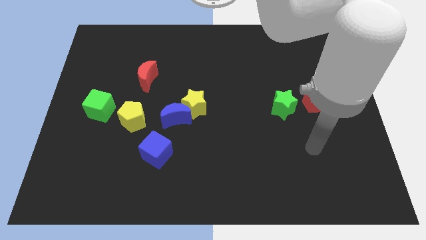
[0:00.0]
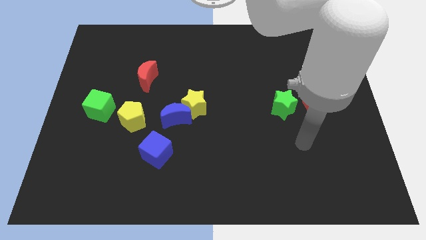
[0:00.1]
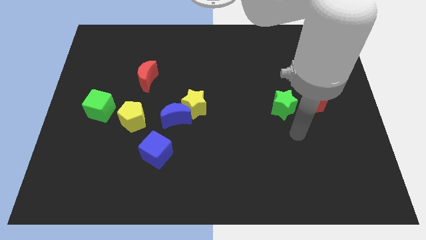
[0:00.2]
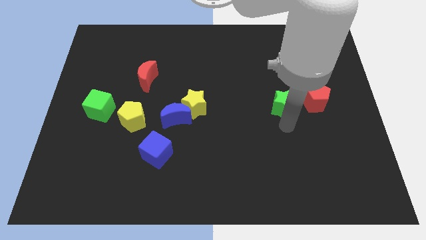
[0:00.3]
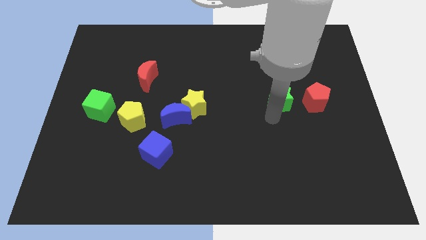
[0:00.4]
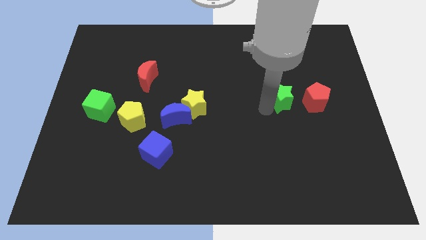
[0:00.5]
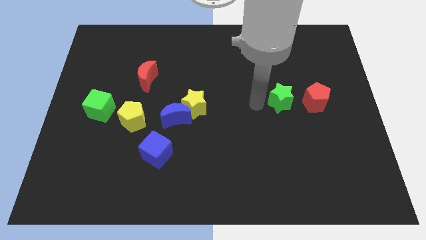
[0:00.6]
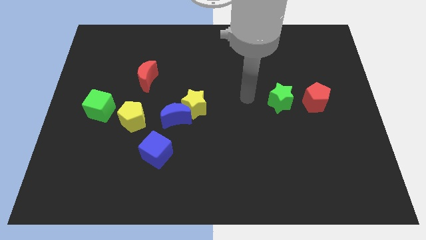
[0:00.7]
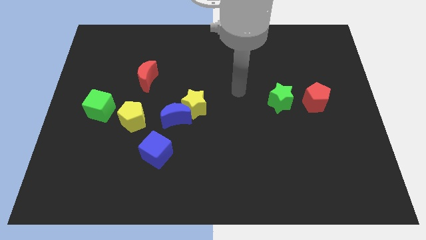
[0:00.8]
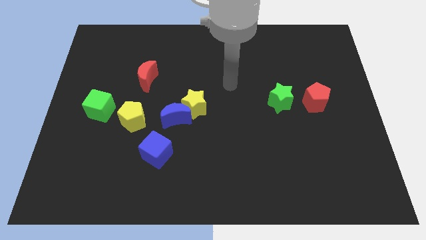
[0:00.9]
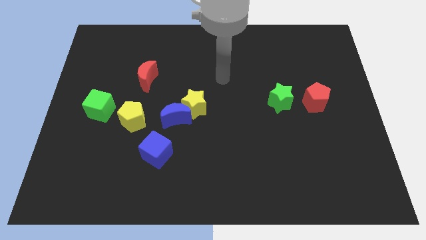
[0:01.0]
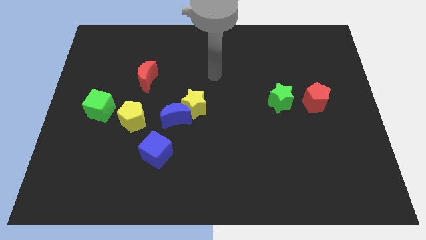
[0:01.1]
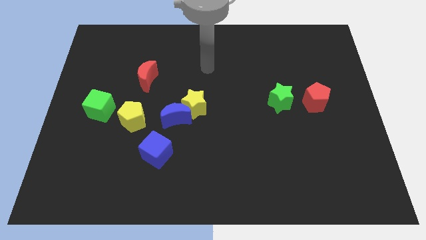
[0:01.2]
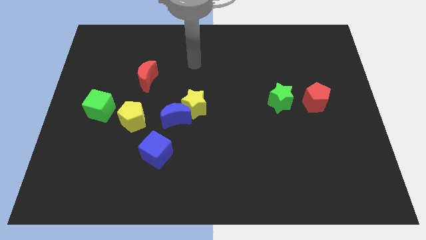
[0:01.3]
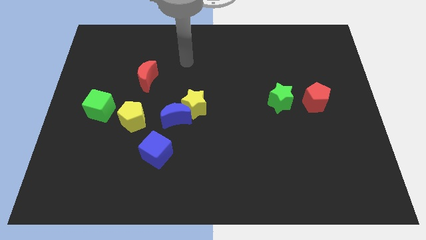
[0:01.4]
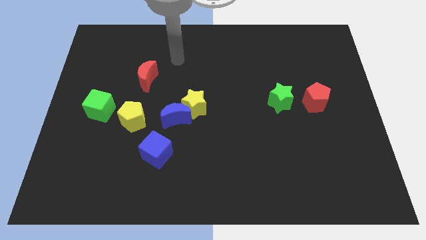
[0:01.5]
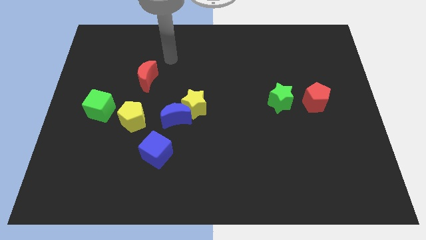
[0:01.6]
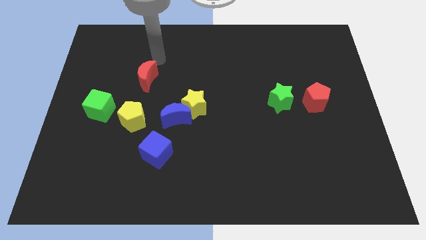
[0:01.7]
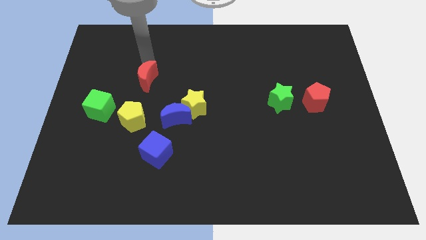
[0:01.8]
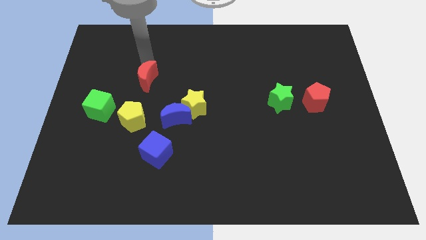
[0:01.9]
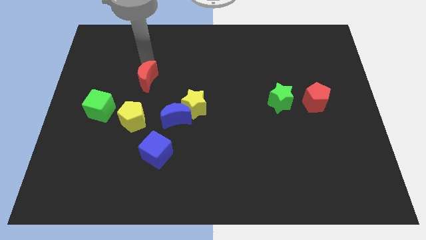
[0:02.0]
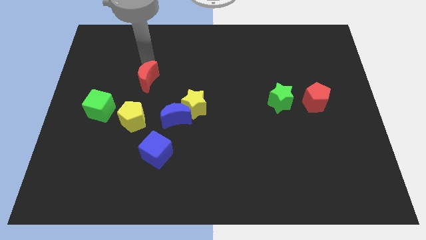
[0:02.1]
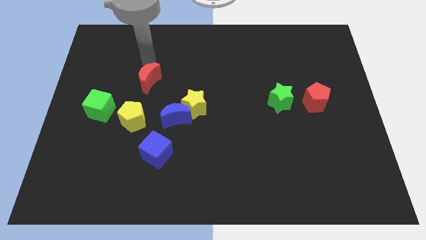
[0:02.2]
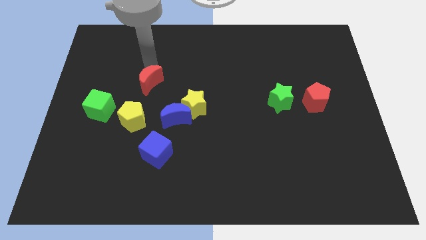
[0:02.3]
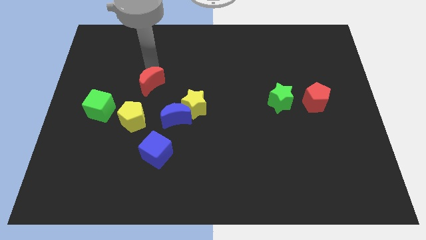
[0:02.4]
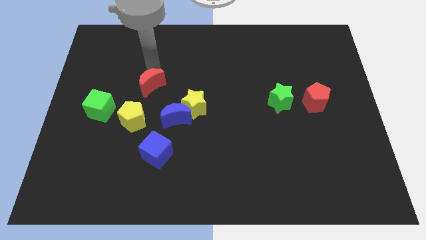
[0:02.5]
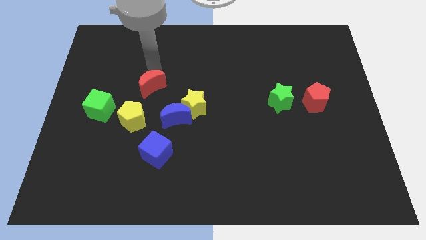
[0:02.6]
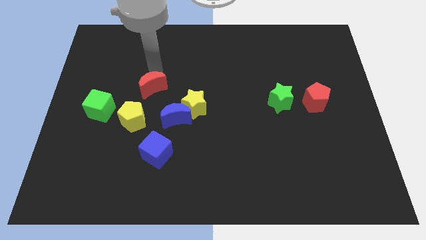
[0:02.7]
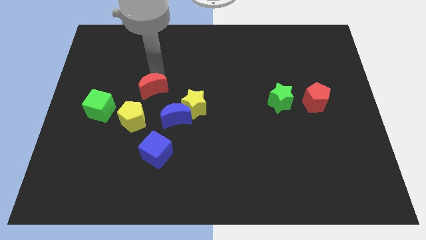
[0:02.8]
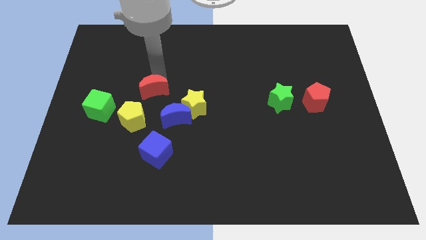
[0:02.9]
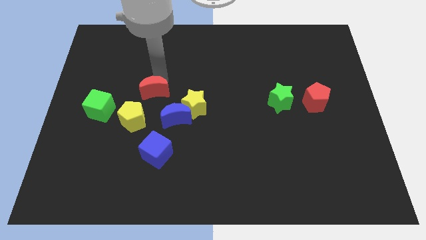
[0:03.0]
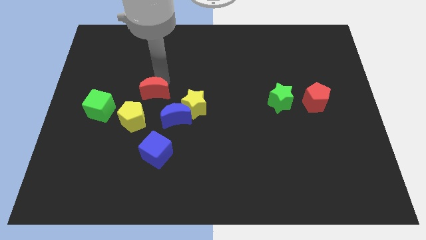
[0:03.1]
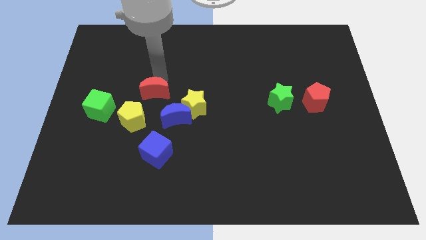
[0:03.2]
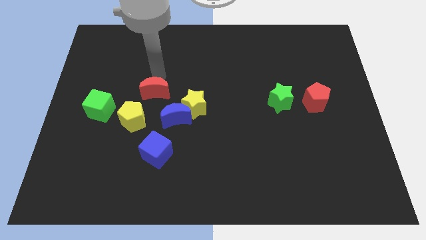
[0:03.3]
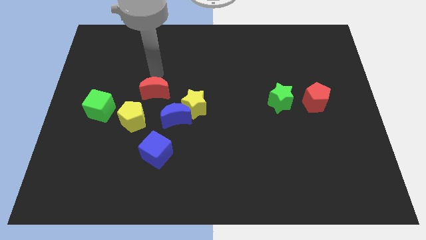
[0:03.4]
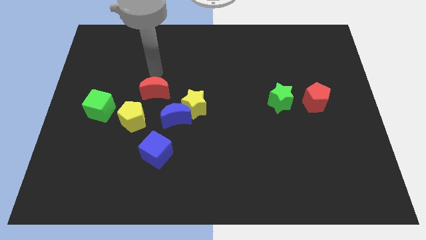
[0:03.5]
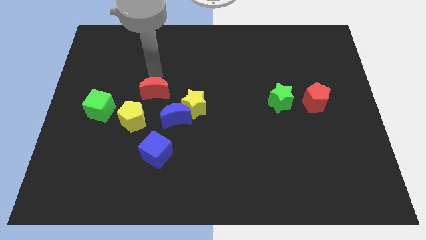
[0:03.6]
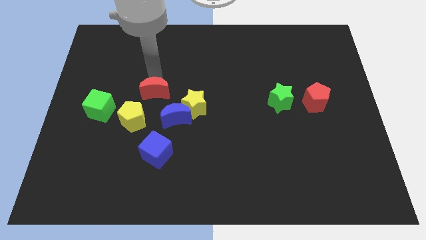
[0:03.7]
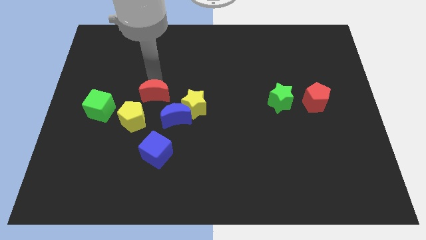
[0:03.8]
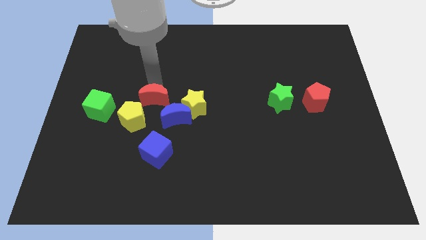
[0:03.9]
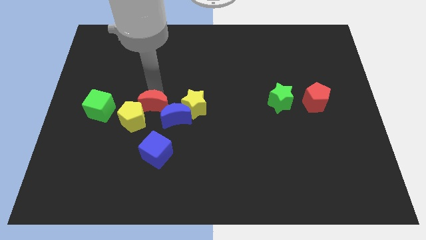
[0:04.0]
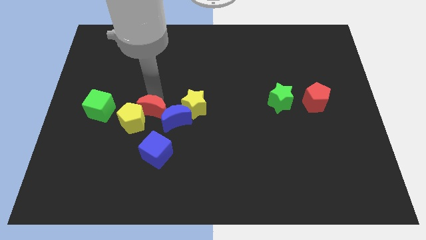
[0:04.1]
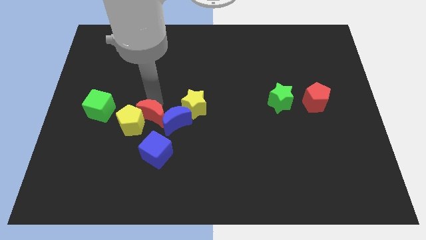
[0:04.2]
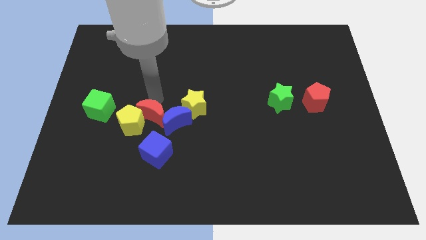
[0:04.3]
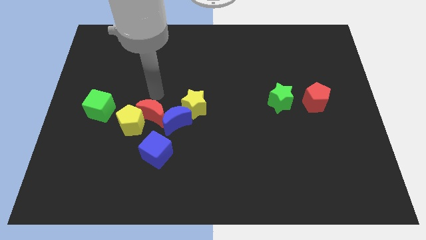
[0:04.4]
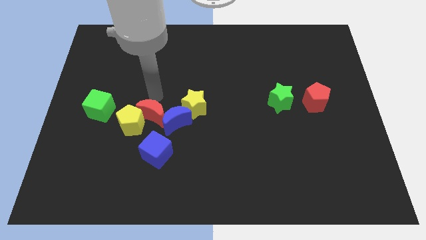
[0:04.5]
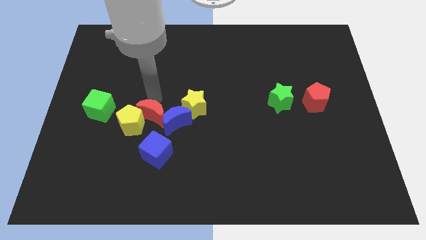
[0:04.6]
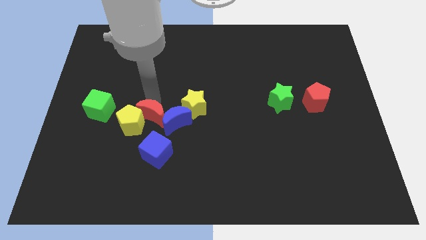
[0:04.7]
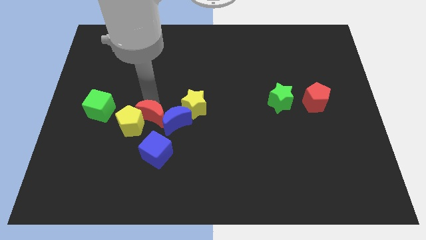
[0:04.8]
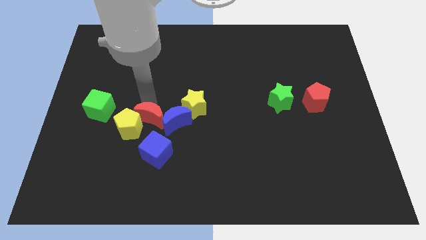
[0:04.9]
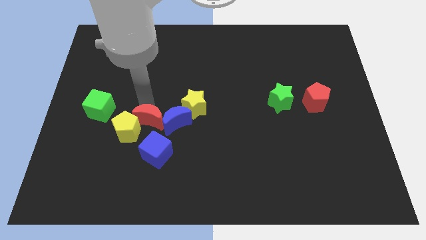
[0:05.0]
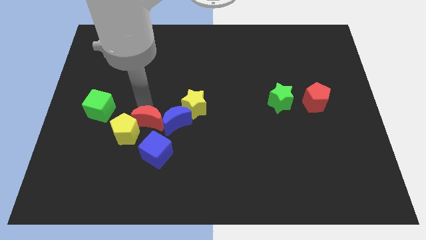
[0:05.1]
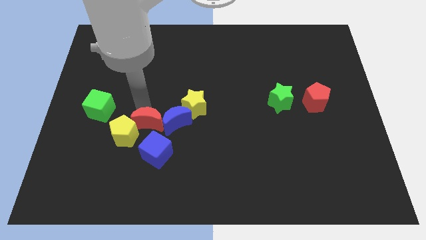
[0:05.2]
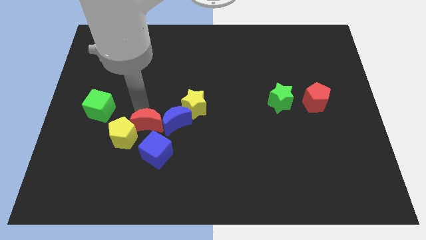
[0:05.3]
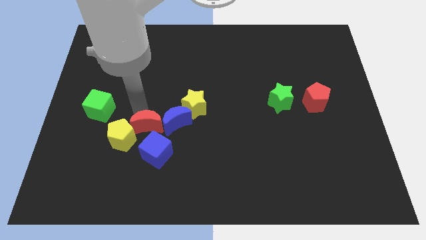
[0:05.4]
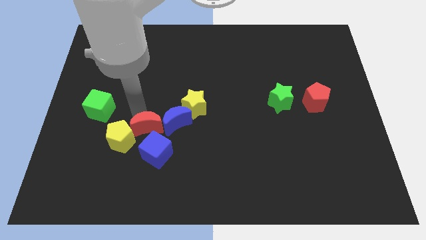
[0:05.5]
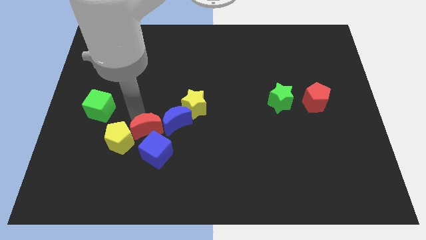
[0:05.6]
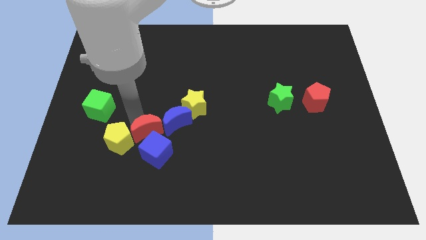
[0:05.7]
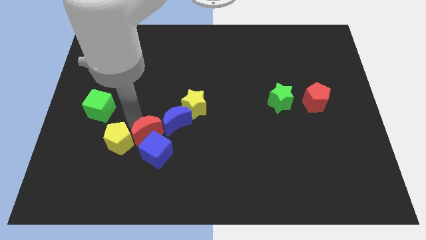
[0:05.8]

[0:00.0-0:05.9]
put the red moon close to the blue cube

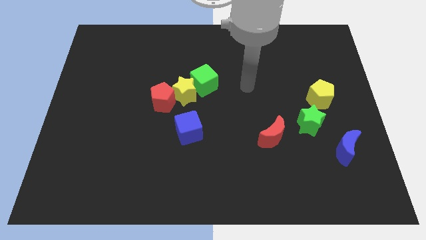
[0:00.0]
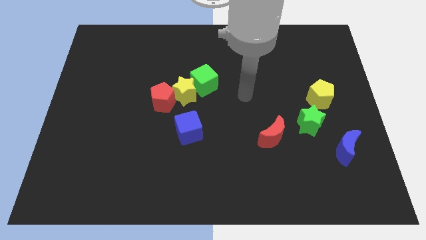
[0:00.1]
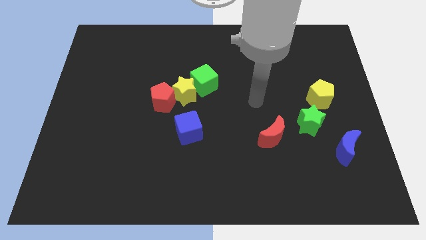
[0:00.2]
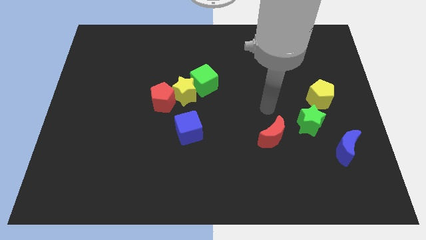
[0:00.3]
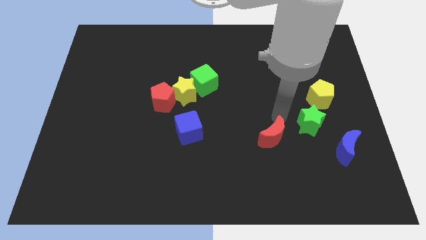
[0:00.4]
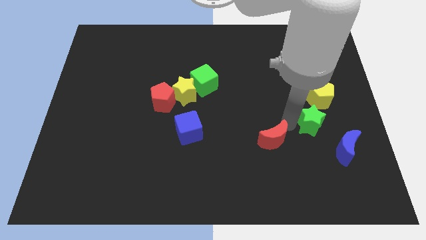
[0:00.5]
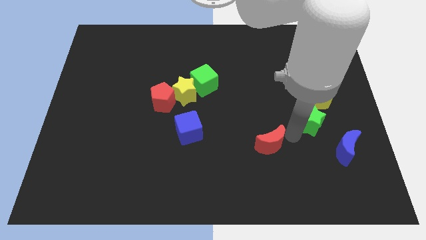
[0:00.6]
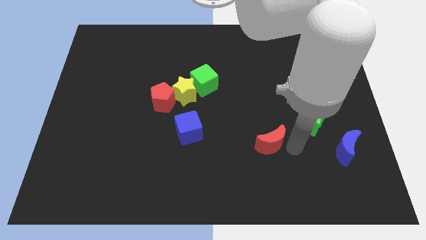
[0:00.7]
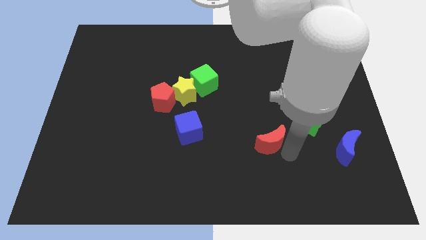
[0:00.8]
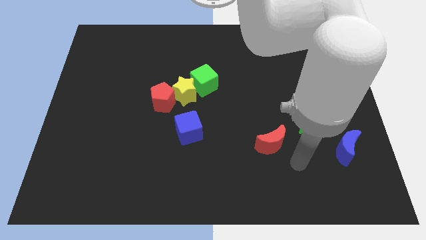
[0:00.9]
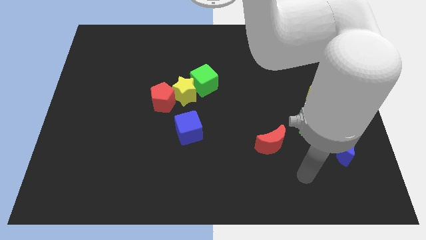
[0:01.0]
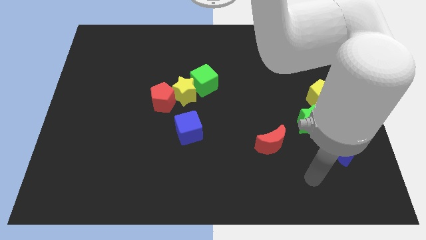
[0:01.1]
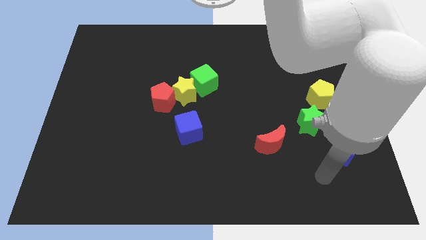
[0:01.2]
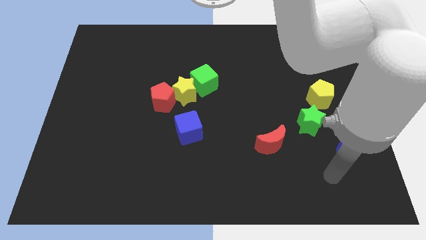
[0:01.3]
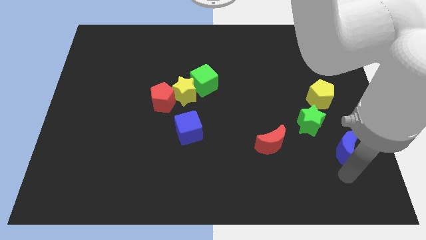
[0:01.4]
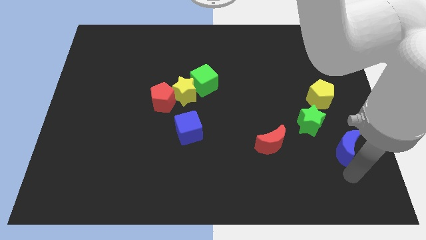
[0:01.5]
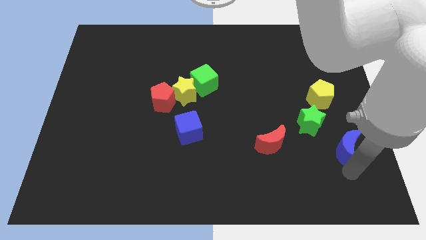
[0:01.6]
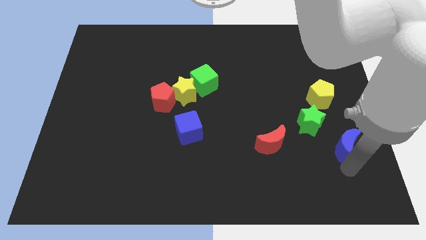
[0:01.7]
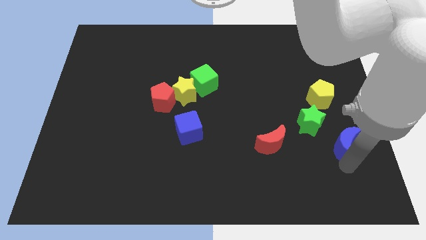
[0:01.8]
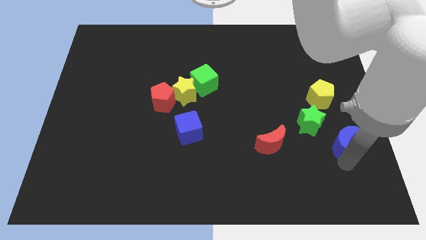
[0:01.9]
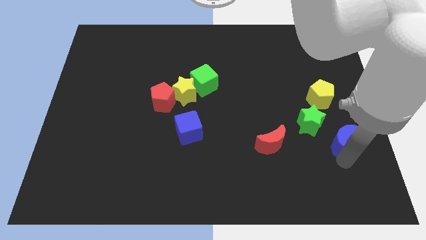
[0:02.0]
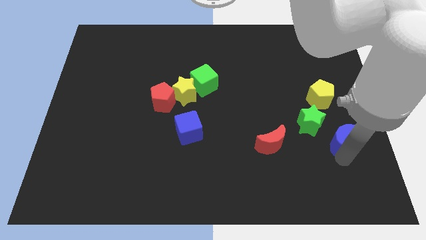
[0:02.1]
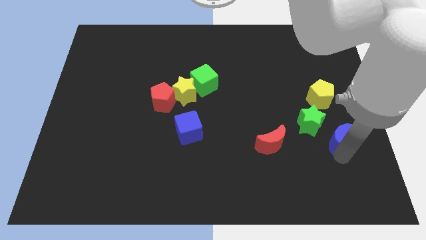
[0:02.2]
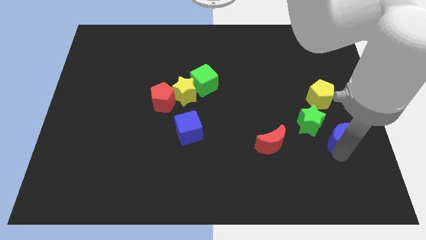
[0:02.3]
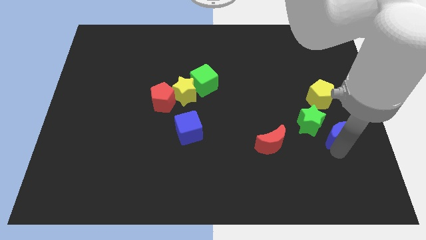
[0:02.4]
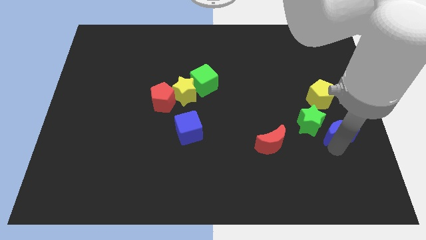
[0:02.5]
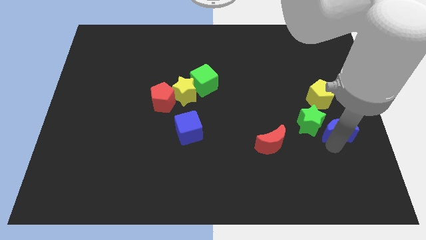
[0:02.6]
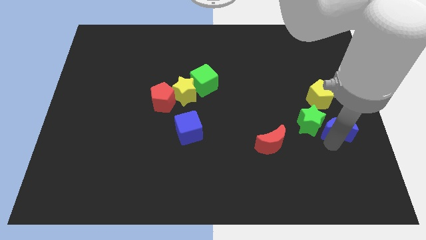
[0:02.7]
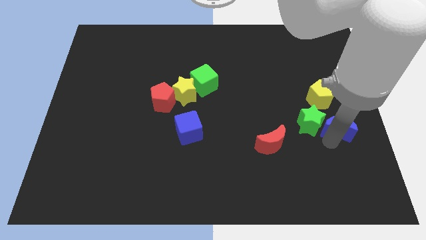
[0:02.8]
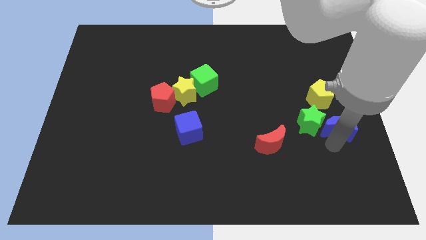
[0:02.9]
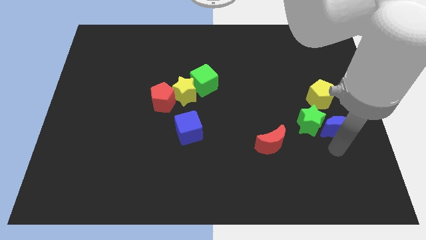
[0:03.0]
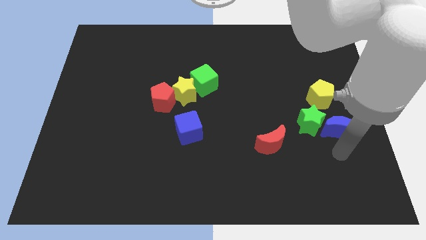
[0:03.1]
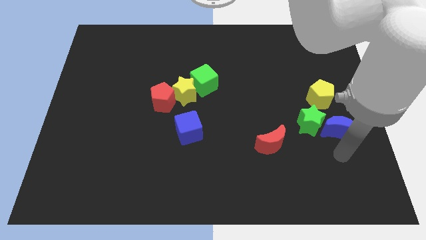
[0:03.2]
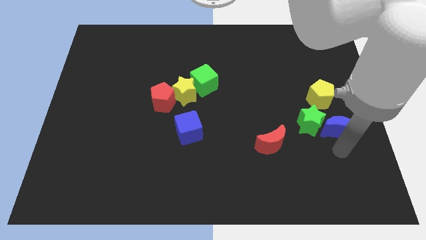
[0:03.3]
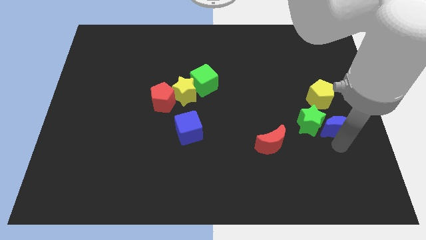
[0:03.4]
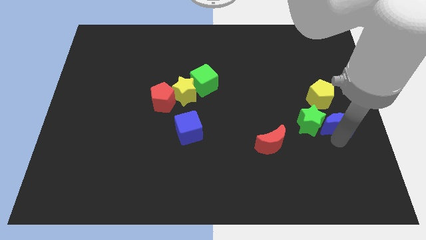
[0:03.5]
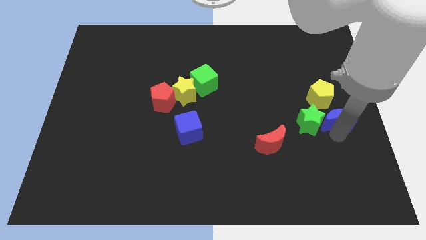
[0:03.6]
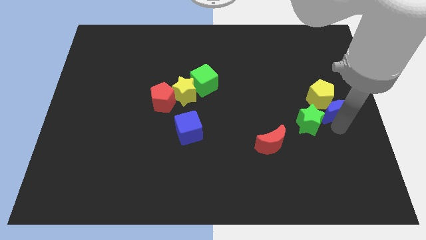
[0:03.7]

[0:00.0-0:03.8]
push the blue moon to the yellow pentagon
